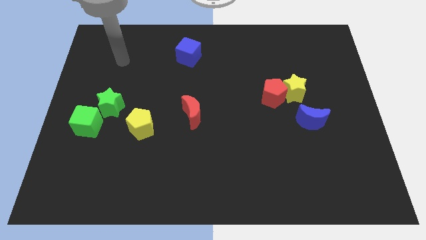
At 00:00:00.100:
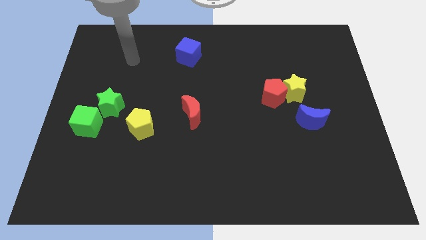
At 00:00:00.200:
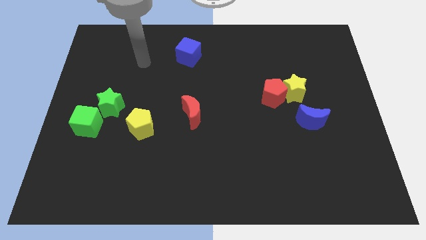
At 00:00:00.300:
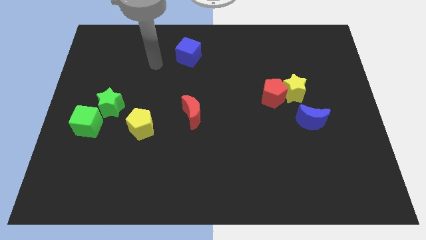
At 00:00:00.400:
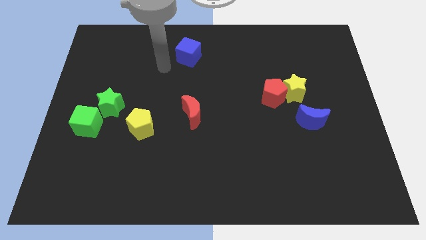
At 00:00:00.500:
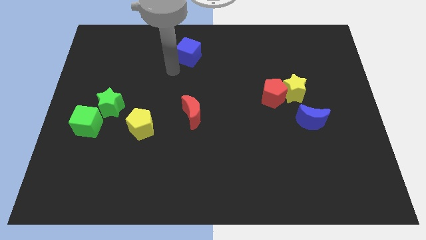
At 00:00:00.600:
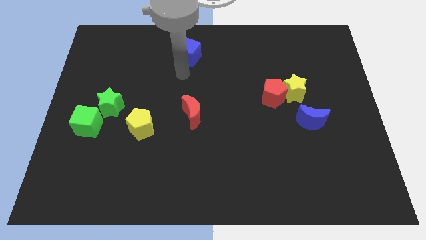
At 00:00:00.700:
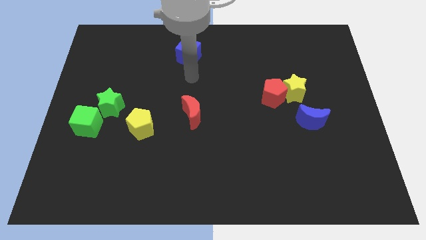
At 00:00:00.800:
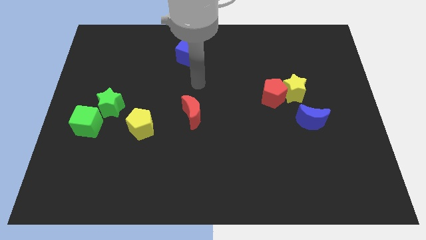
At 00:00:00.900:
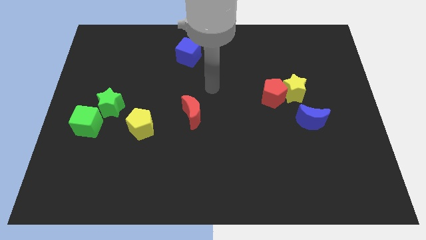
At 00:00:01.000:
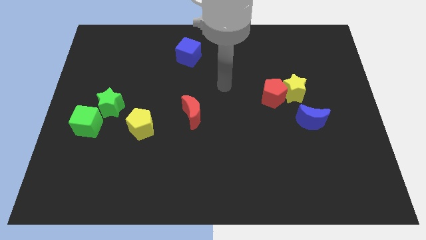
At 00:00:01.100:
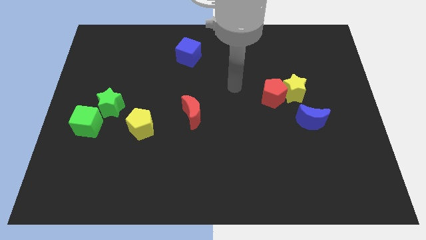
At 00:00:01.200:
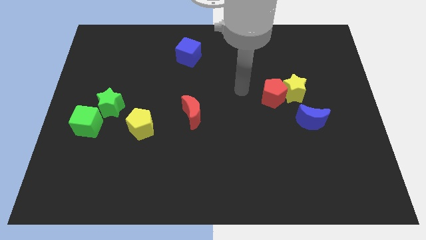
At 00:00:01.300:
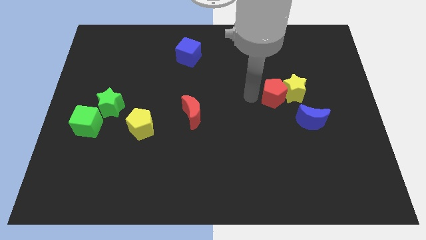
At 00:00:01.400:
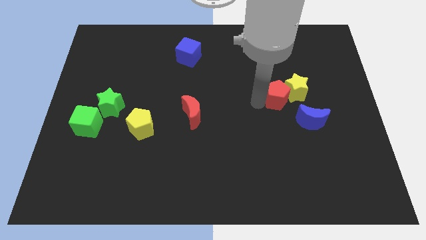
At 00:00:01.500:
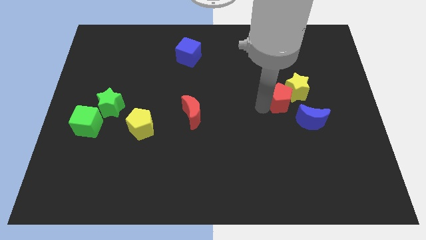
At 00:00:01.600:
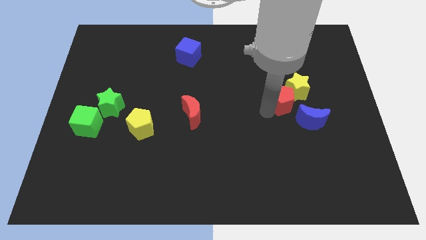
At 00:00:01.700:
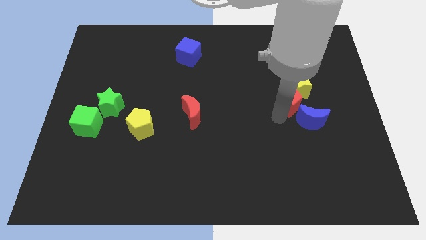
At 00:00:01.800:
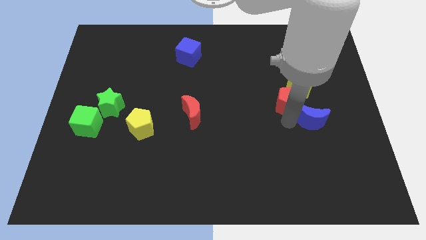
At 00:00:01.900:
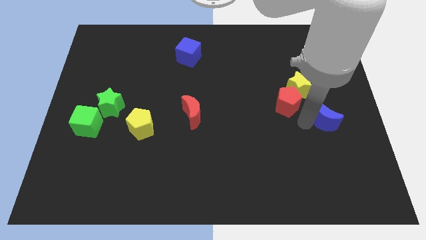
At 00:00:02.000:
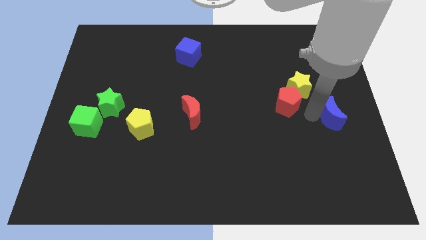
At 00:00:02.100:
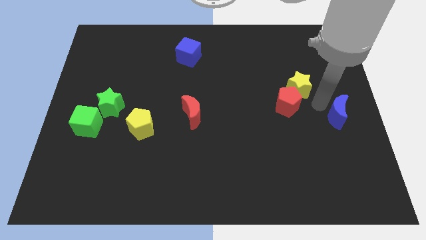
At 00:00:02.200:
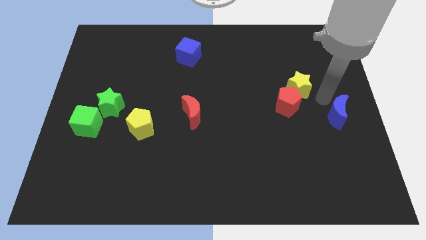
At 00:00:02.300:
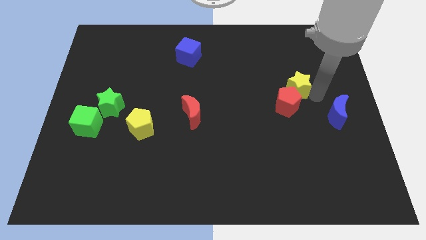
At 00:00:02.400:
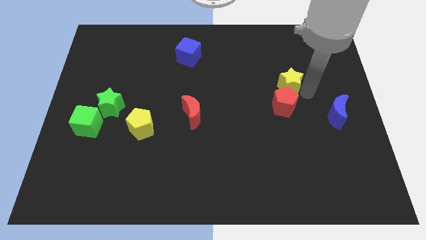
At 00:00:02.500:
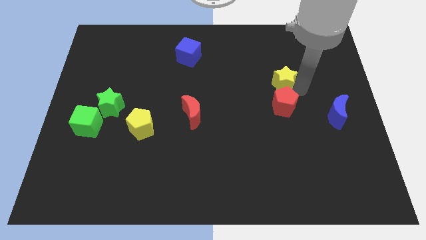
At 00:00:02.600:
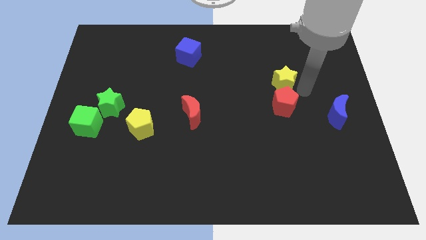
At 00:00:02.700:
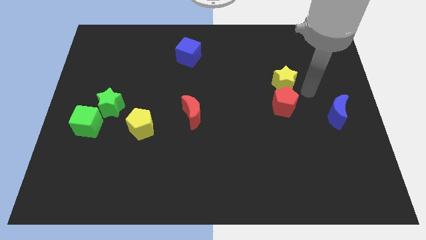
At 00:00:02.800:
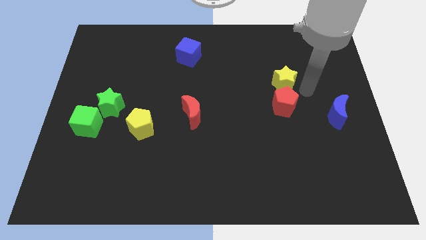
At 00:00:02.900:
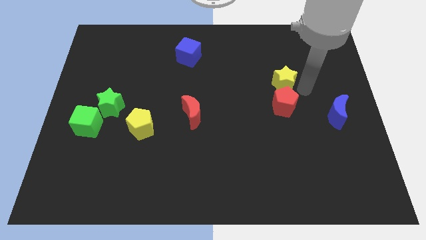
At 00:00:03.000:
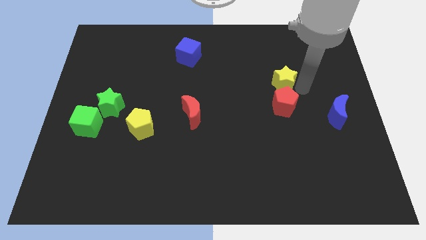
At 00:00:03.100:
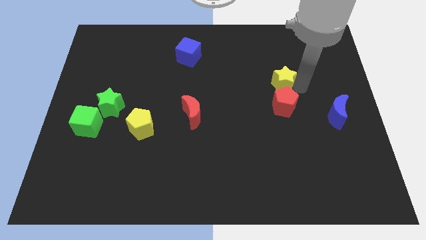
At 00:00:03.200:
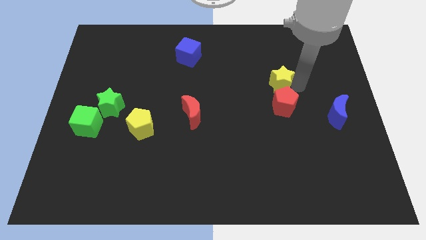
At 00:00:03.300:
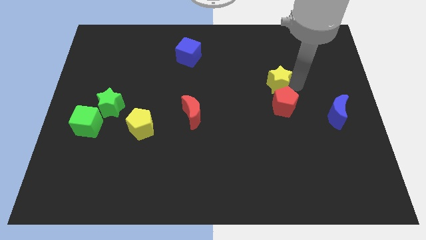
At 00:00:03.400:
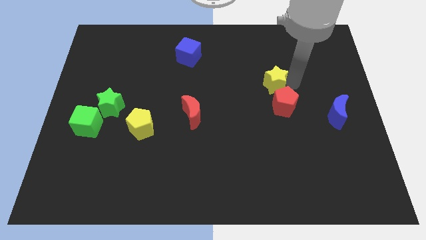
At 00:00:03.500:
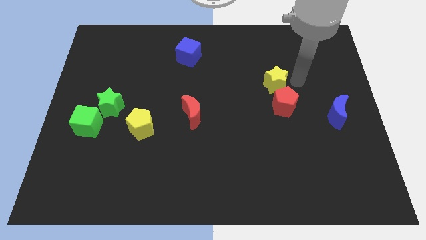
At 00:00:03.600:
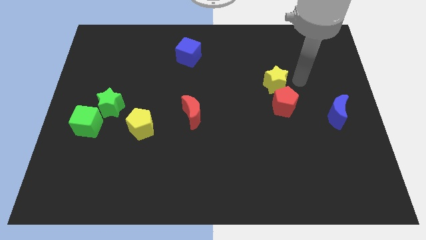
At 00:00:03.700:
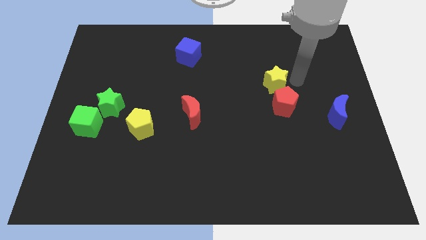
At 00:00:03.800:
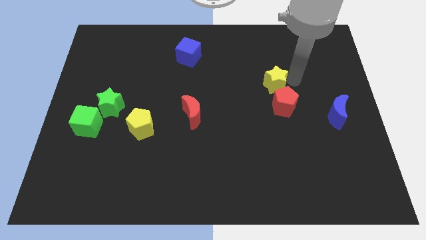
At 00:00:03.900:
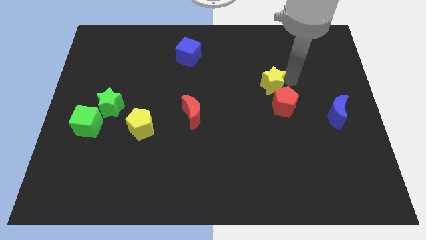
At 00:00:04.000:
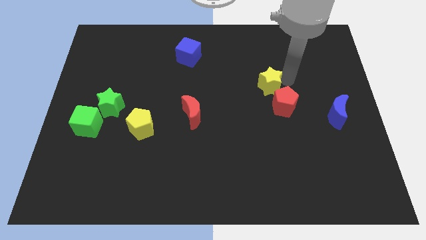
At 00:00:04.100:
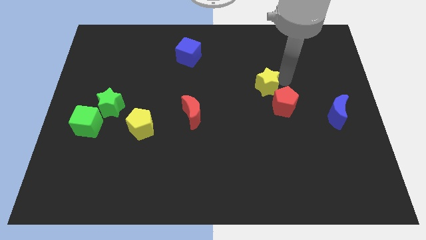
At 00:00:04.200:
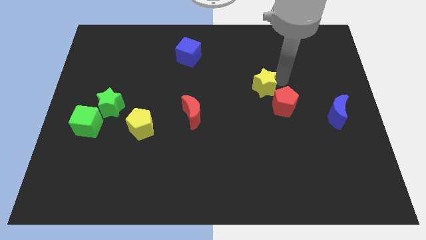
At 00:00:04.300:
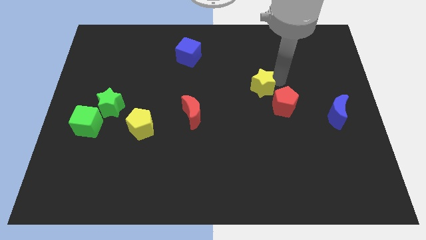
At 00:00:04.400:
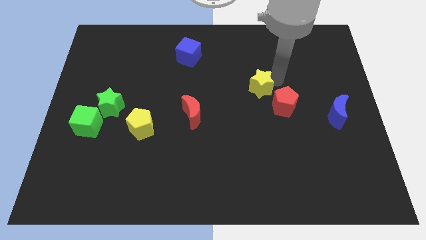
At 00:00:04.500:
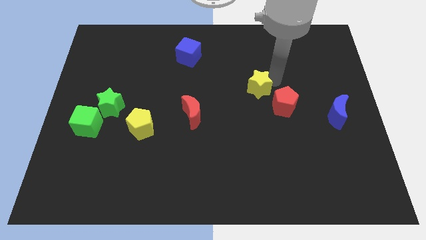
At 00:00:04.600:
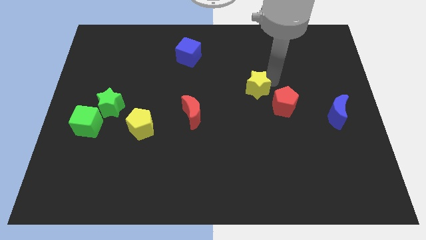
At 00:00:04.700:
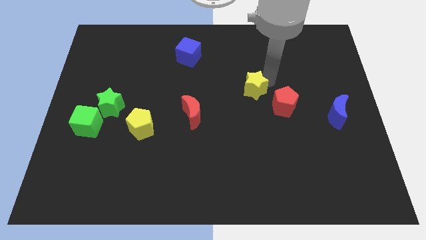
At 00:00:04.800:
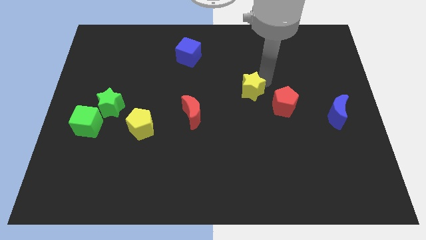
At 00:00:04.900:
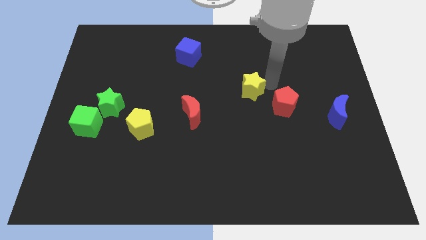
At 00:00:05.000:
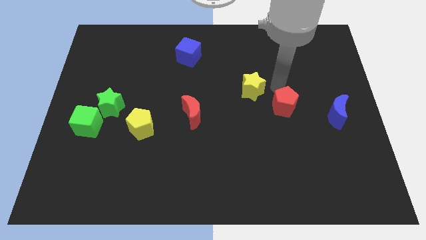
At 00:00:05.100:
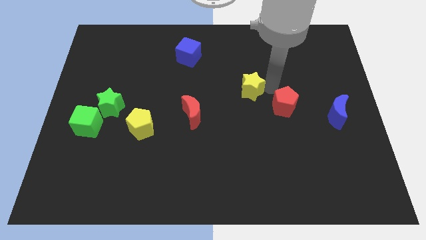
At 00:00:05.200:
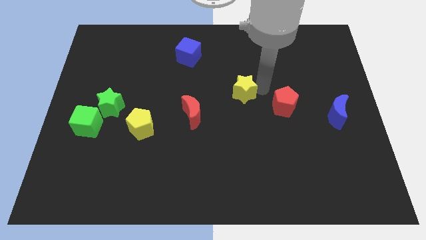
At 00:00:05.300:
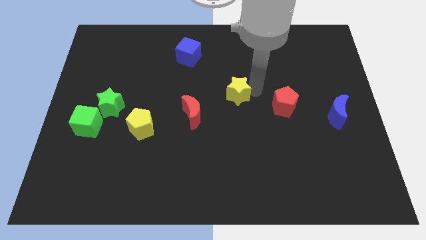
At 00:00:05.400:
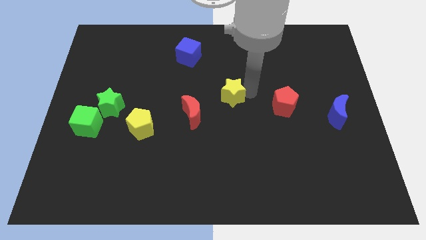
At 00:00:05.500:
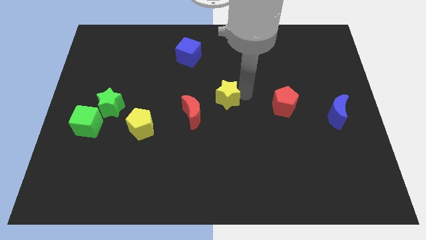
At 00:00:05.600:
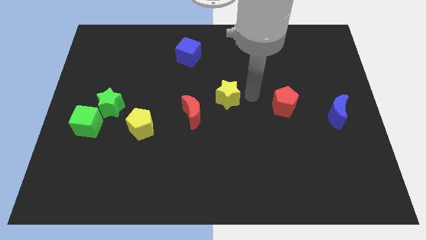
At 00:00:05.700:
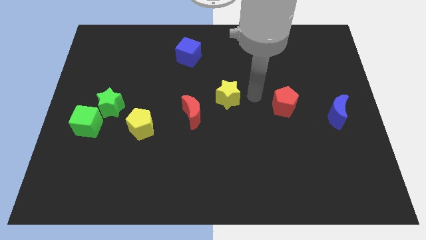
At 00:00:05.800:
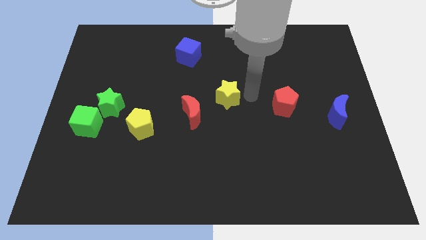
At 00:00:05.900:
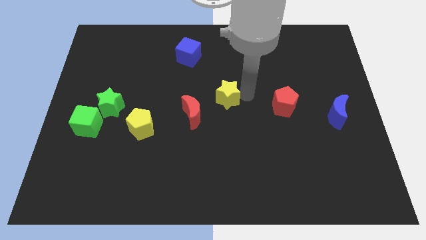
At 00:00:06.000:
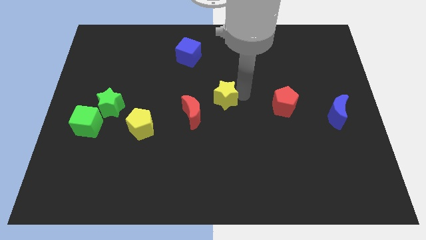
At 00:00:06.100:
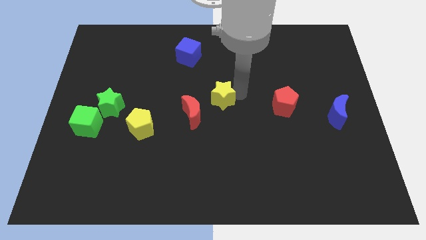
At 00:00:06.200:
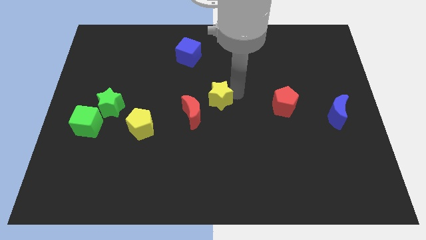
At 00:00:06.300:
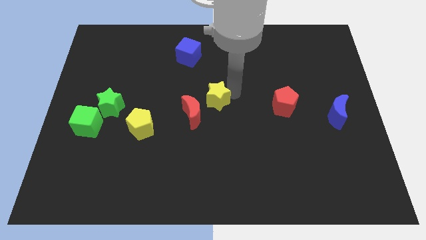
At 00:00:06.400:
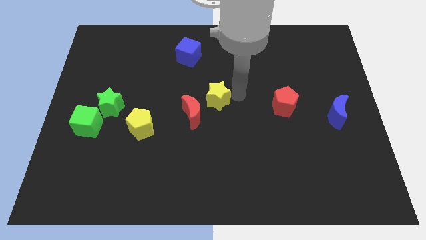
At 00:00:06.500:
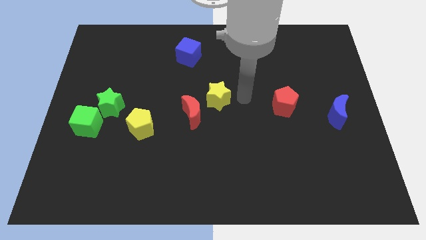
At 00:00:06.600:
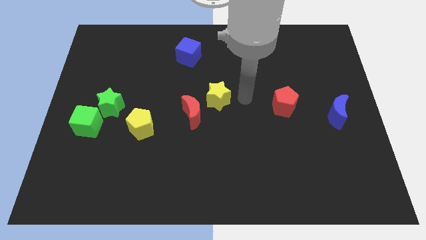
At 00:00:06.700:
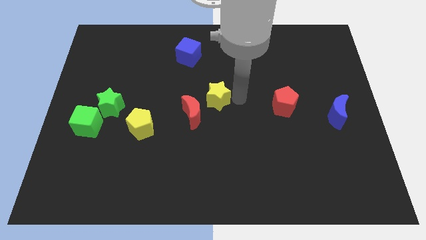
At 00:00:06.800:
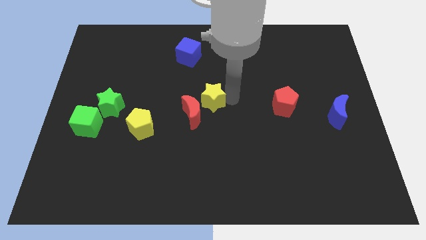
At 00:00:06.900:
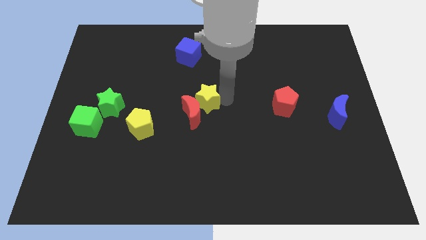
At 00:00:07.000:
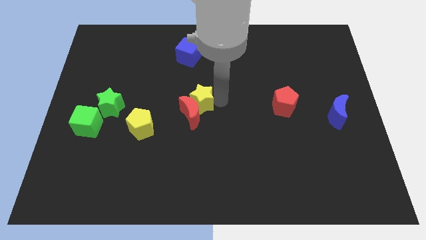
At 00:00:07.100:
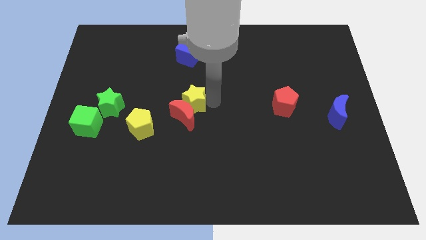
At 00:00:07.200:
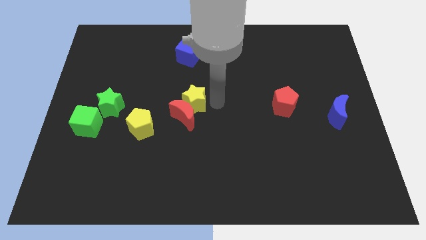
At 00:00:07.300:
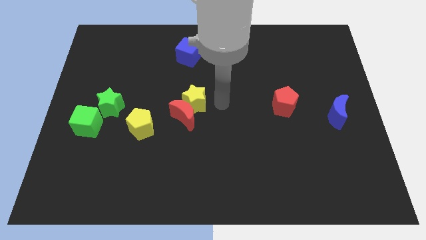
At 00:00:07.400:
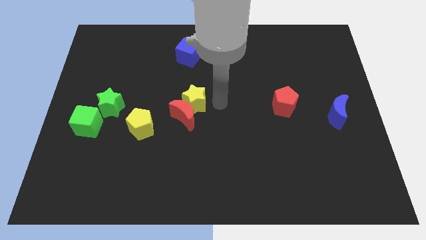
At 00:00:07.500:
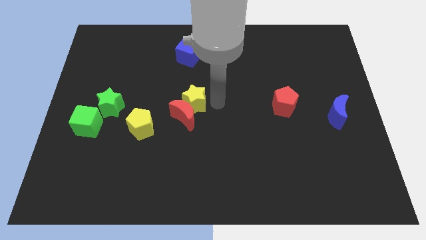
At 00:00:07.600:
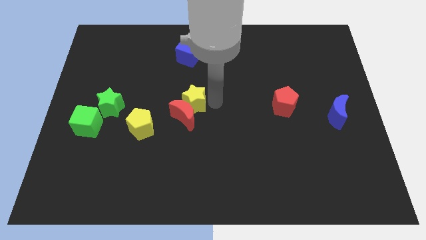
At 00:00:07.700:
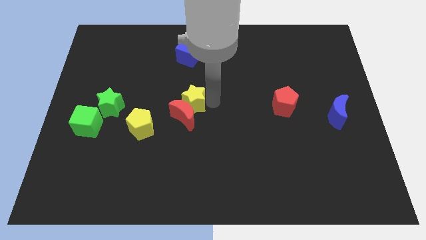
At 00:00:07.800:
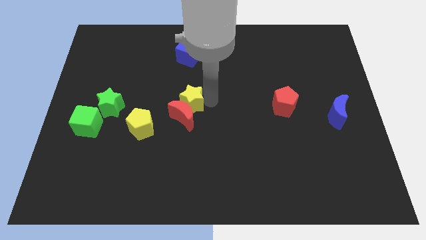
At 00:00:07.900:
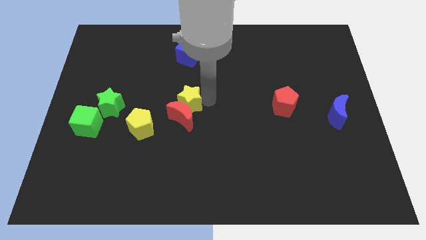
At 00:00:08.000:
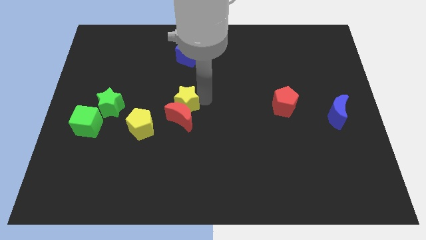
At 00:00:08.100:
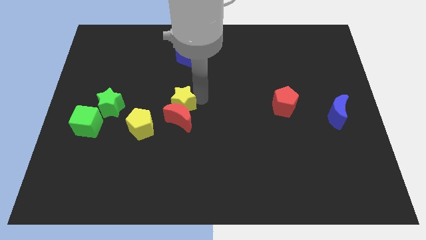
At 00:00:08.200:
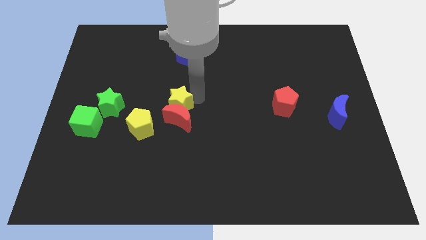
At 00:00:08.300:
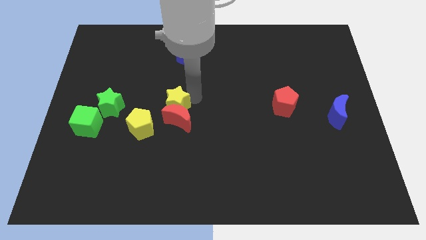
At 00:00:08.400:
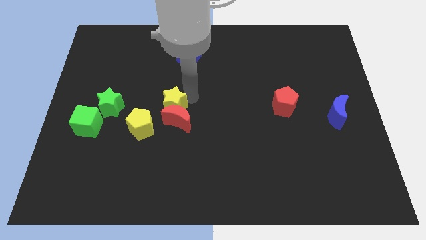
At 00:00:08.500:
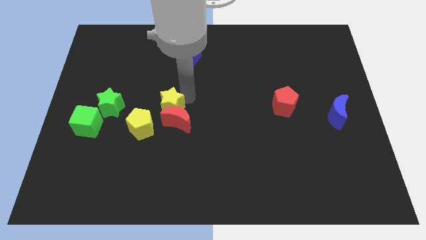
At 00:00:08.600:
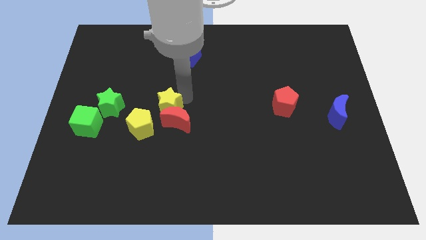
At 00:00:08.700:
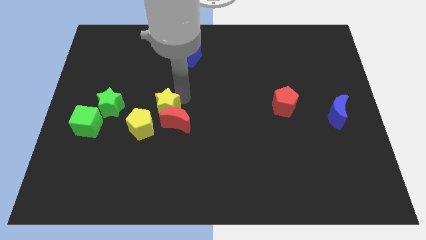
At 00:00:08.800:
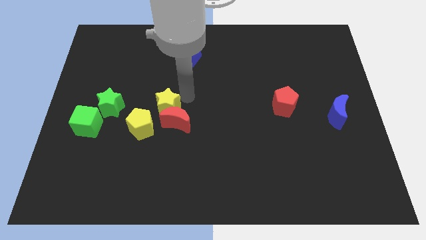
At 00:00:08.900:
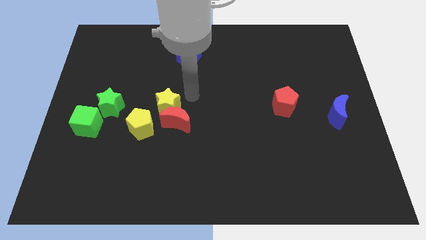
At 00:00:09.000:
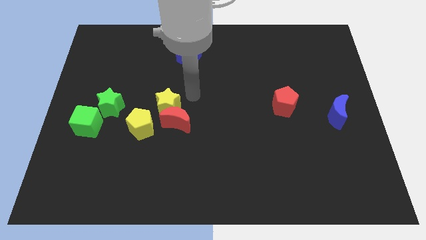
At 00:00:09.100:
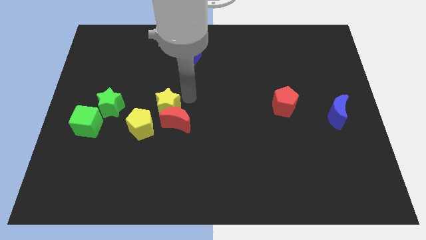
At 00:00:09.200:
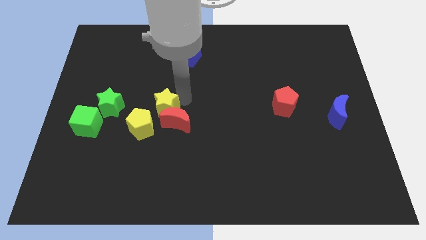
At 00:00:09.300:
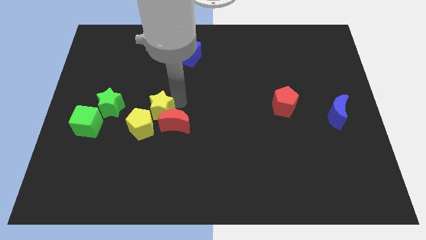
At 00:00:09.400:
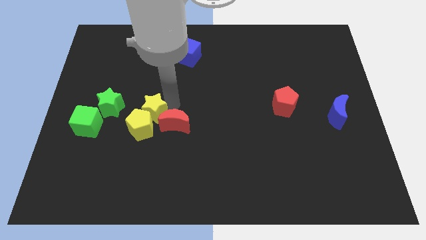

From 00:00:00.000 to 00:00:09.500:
put the yellow star to the yellow pentagon
